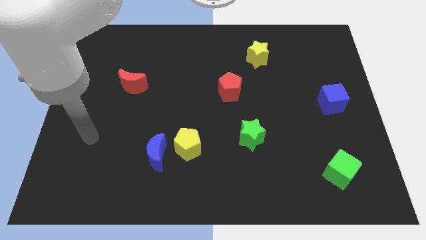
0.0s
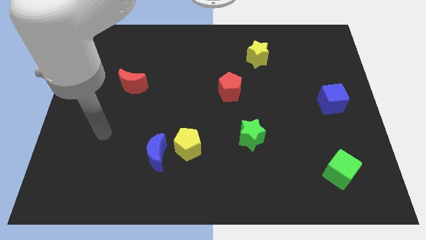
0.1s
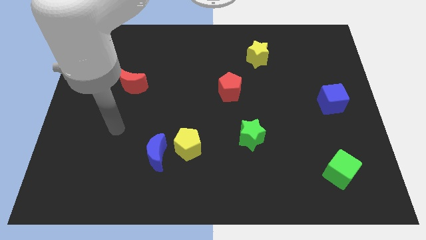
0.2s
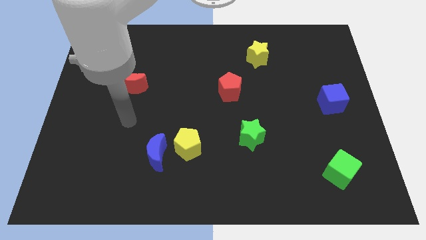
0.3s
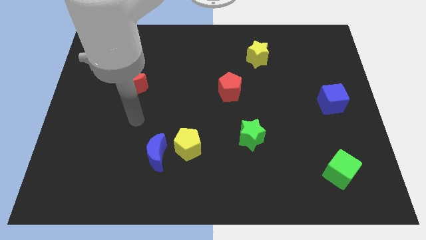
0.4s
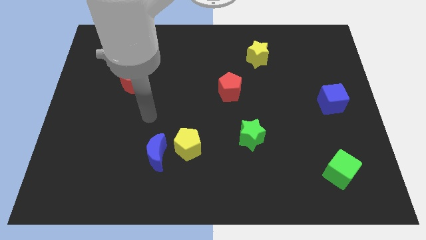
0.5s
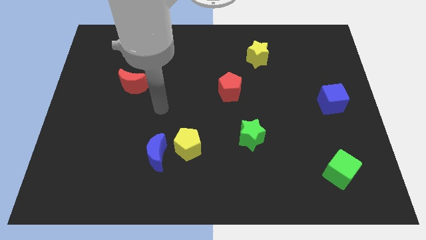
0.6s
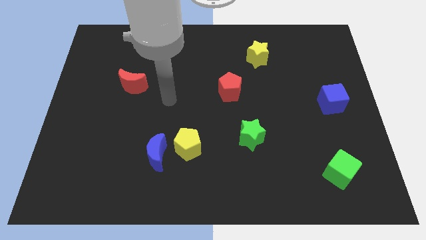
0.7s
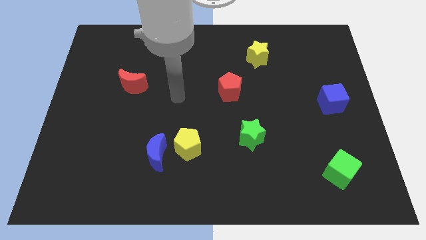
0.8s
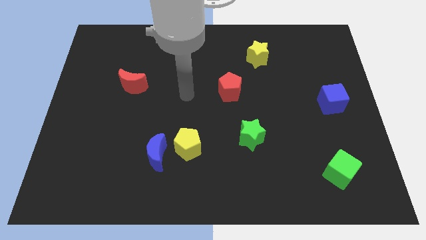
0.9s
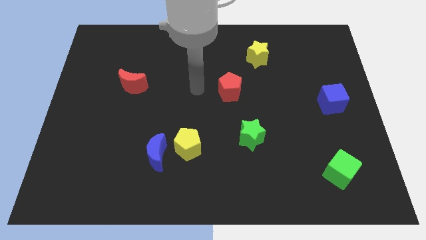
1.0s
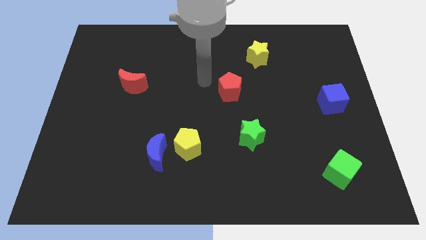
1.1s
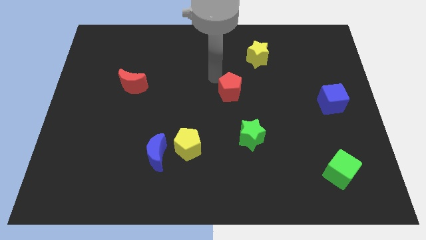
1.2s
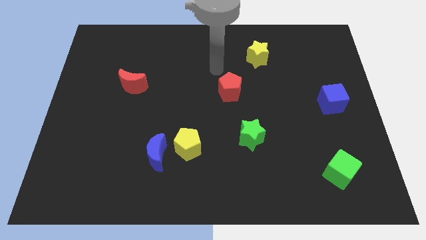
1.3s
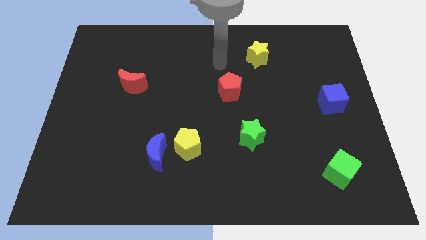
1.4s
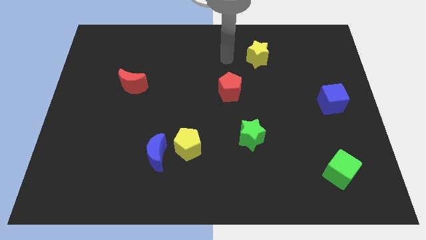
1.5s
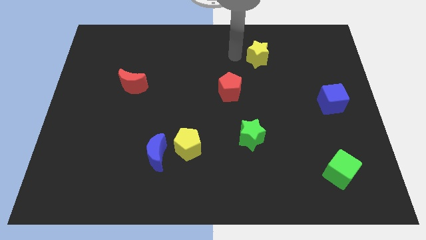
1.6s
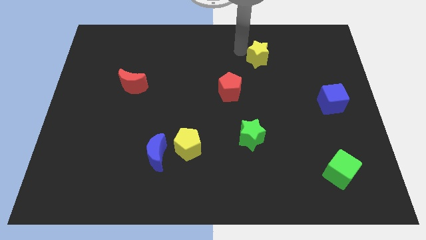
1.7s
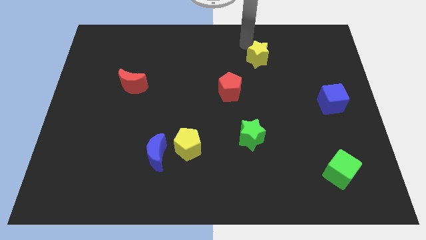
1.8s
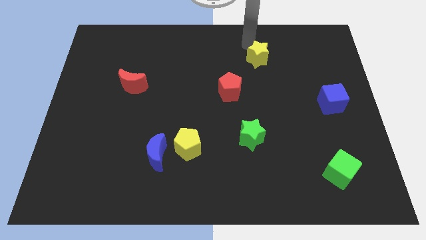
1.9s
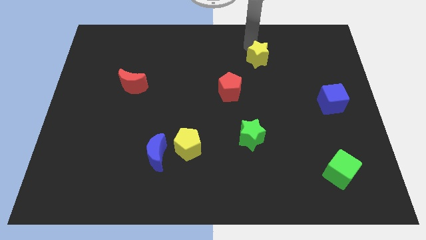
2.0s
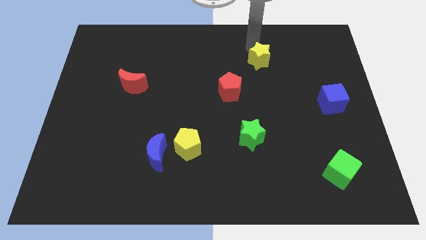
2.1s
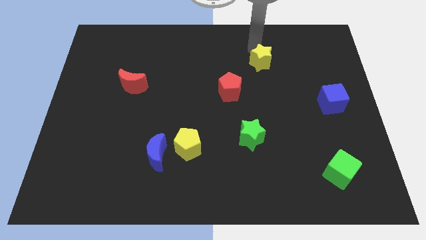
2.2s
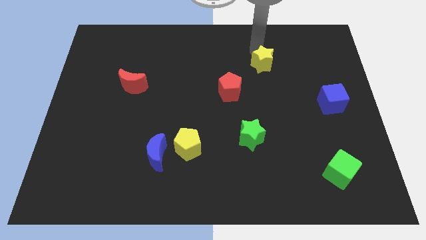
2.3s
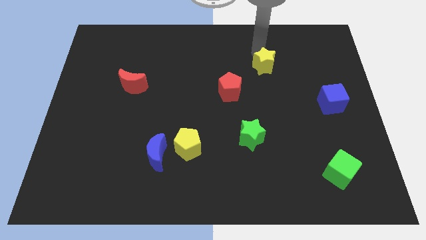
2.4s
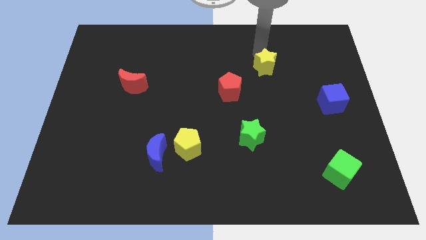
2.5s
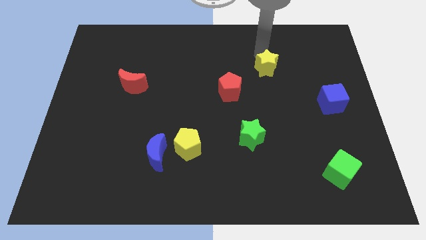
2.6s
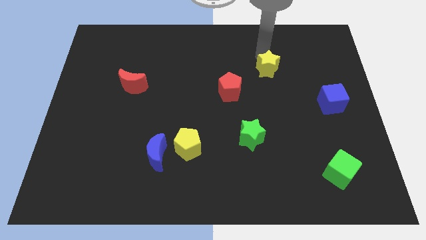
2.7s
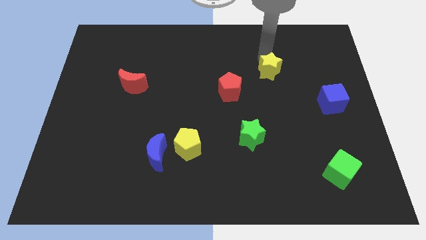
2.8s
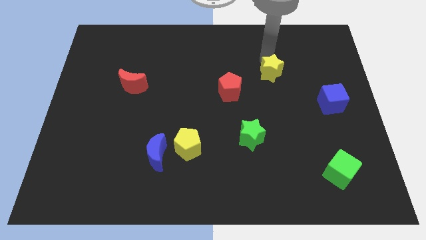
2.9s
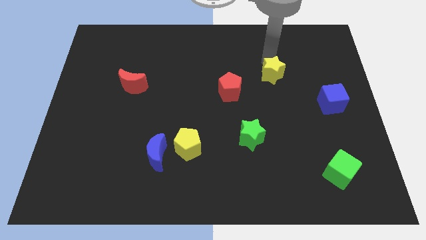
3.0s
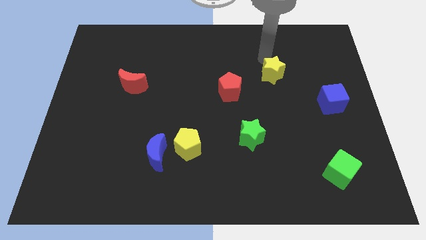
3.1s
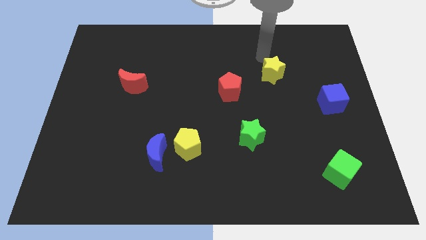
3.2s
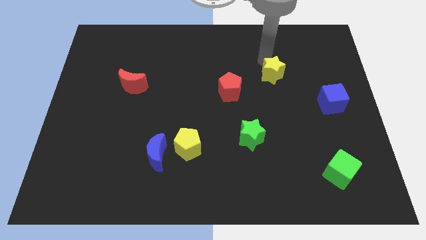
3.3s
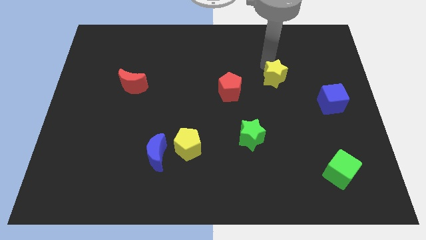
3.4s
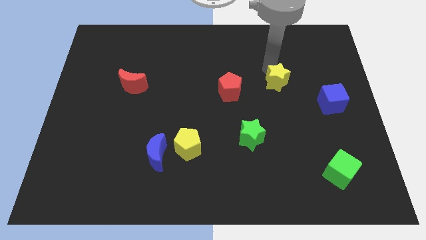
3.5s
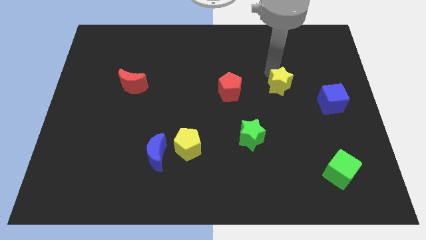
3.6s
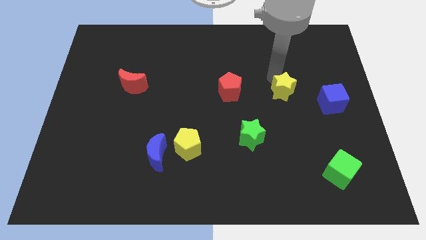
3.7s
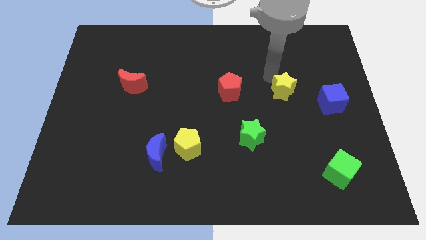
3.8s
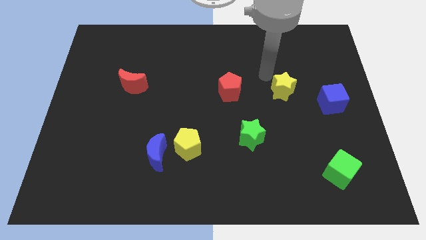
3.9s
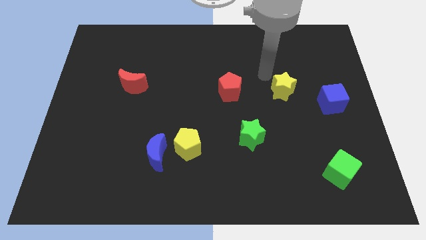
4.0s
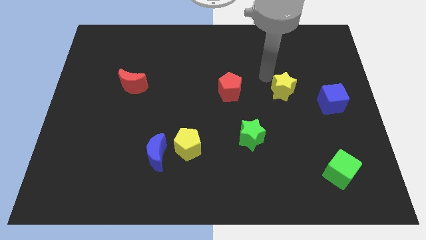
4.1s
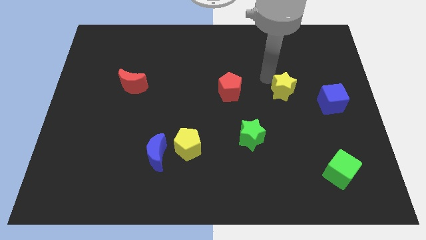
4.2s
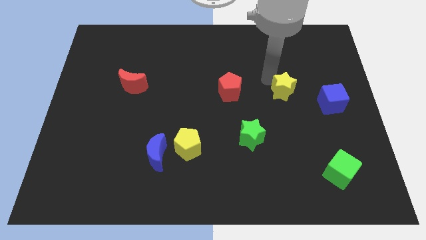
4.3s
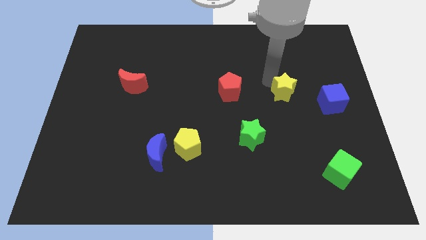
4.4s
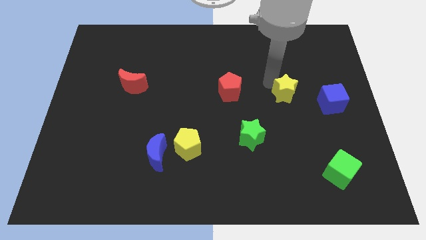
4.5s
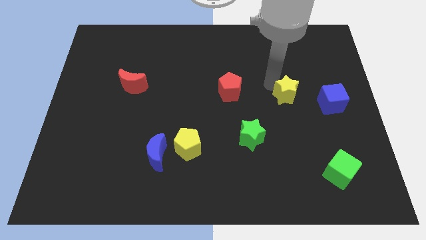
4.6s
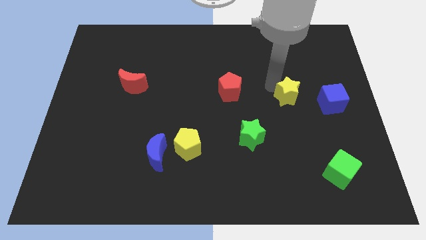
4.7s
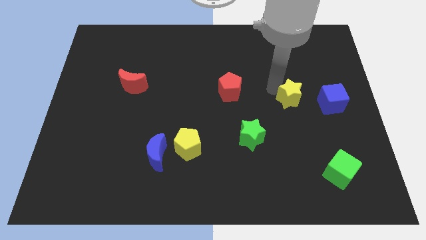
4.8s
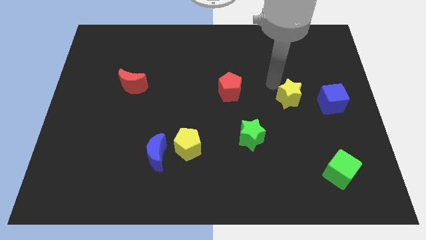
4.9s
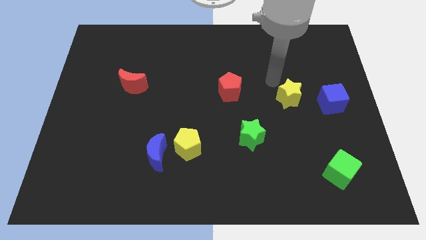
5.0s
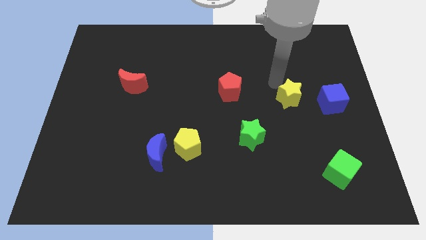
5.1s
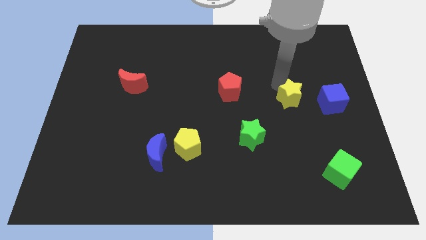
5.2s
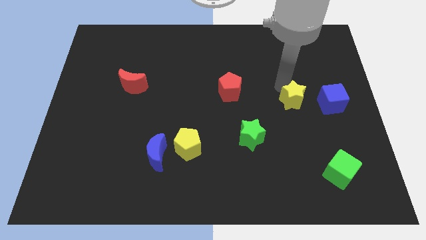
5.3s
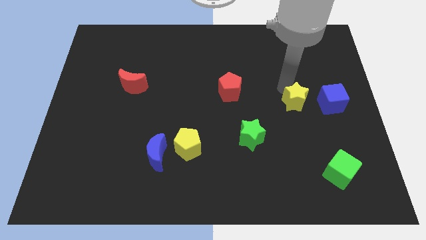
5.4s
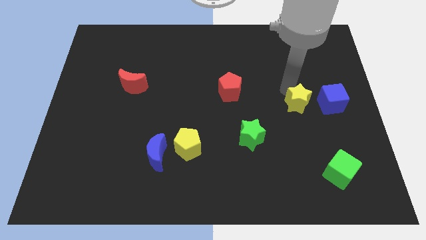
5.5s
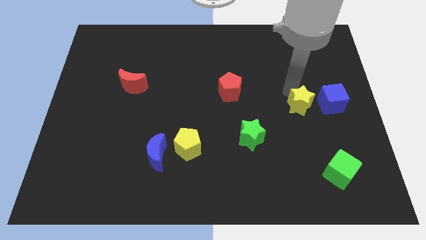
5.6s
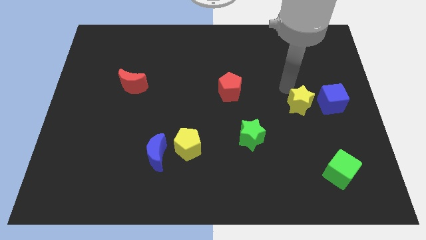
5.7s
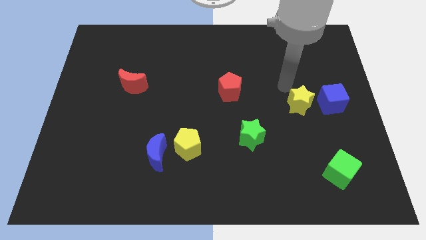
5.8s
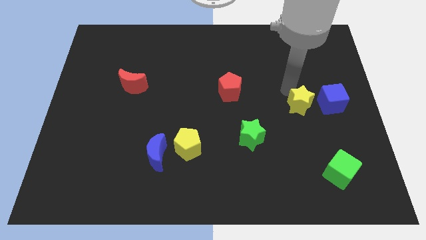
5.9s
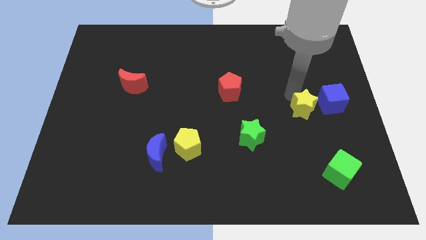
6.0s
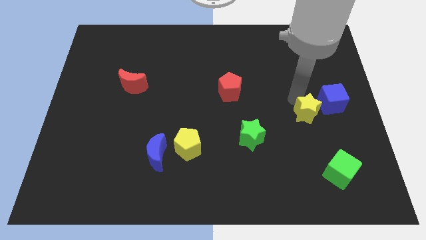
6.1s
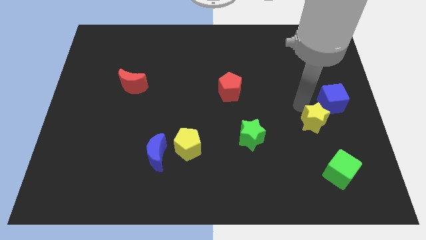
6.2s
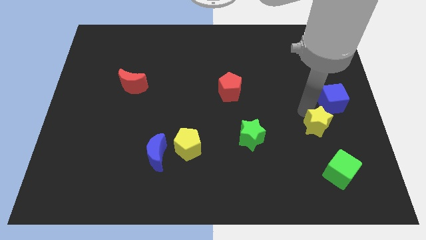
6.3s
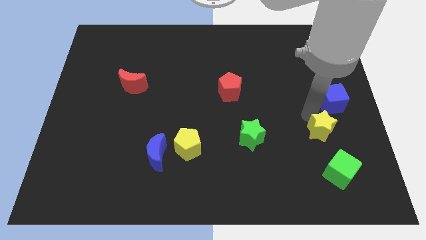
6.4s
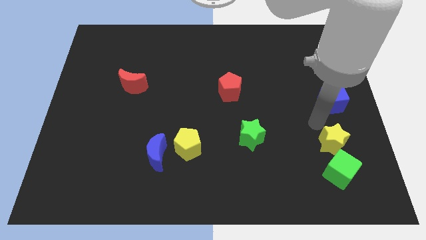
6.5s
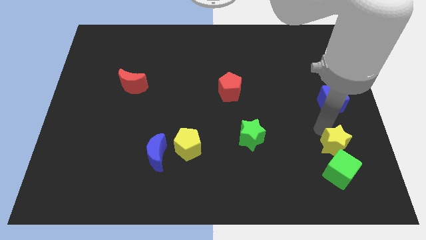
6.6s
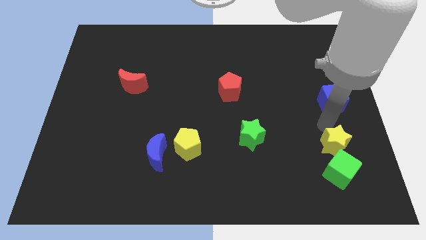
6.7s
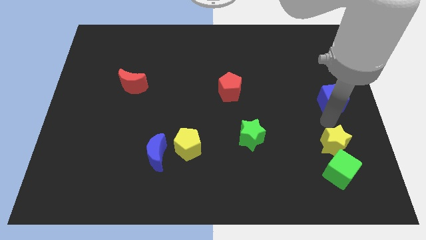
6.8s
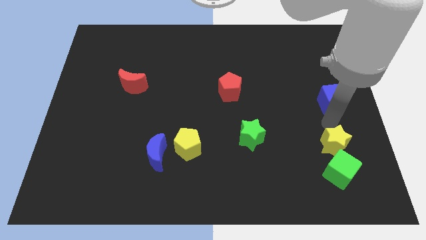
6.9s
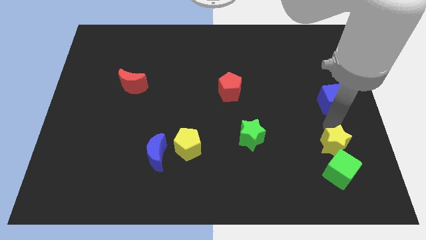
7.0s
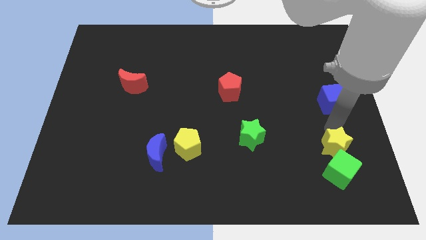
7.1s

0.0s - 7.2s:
push the yellow star next to the green cube
